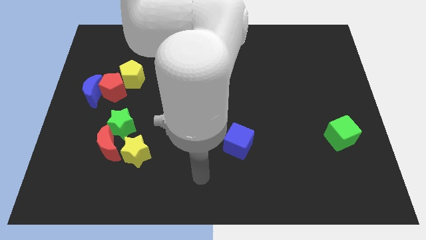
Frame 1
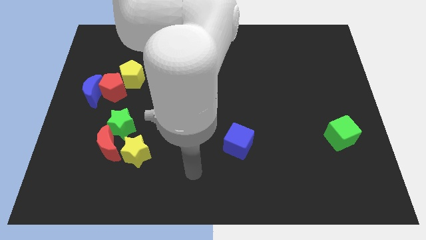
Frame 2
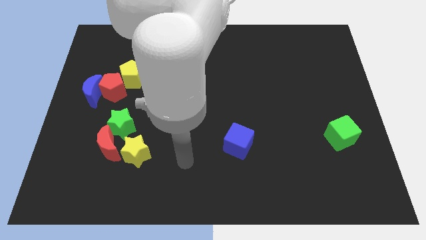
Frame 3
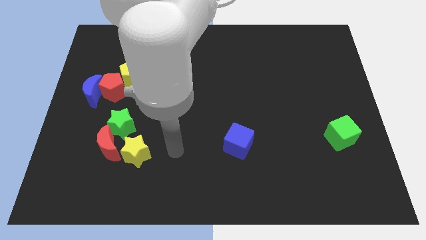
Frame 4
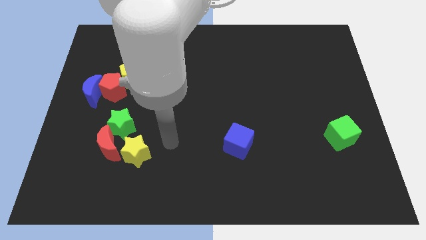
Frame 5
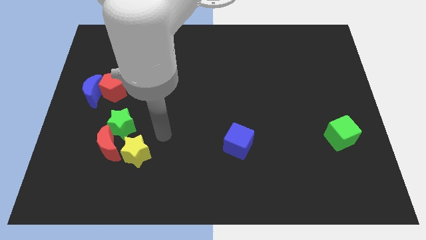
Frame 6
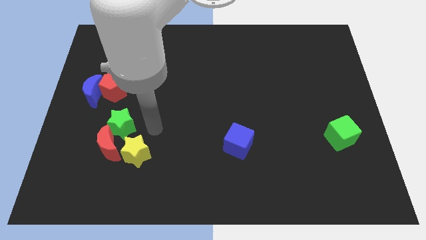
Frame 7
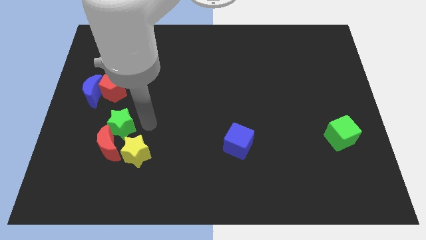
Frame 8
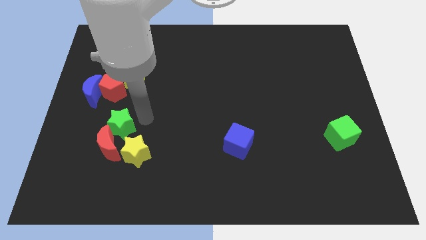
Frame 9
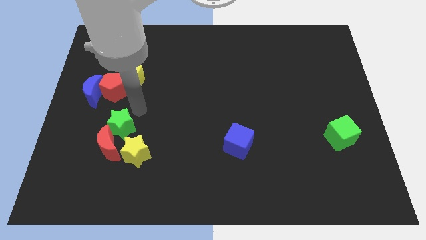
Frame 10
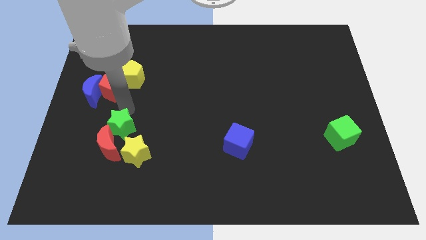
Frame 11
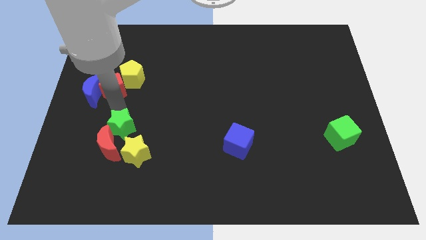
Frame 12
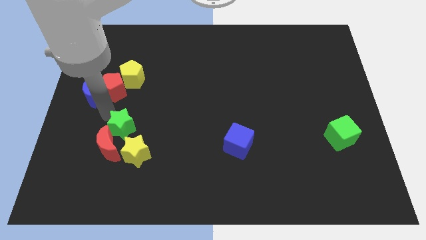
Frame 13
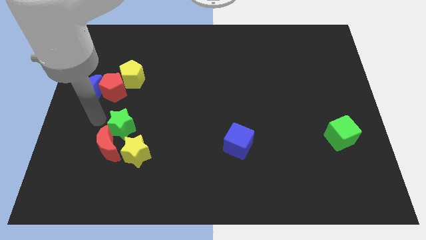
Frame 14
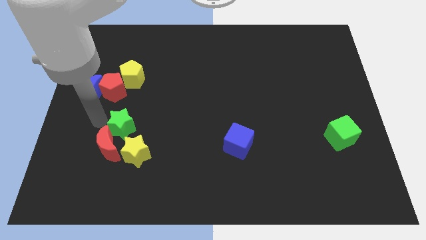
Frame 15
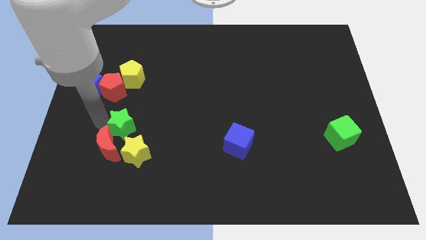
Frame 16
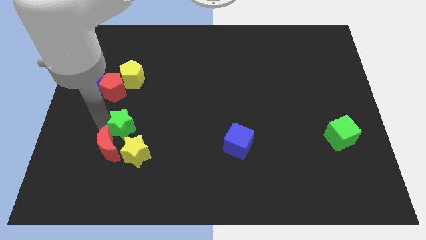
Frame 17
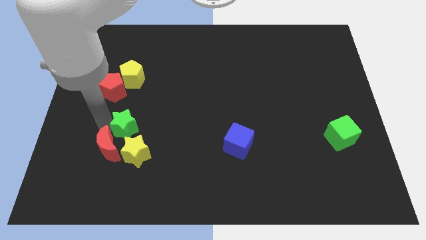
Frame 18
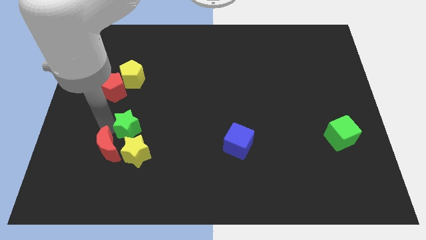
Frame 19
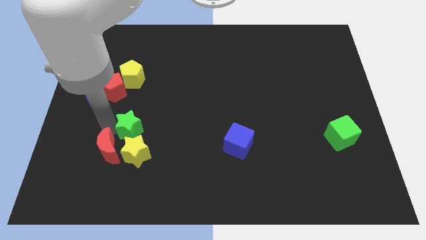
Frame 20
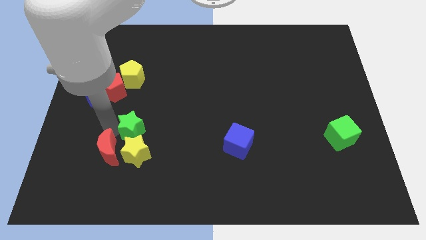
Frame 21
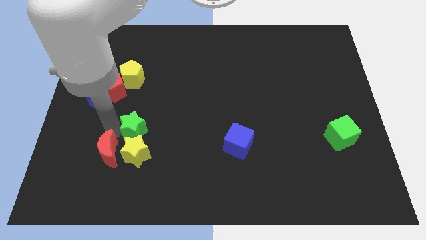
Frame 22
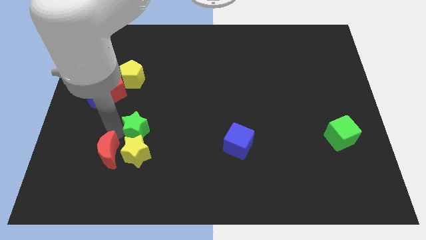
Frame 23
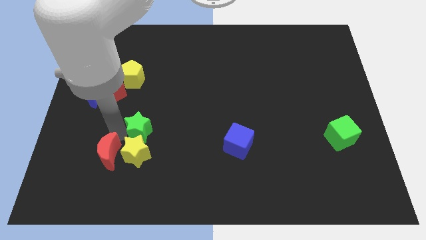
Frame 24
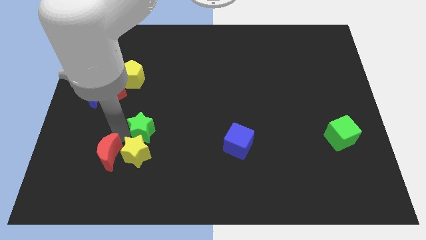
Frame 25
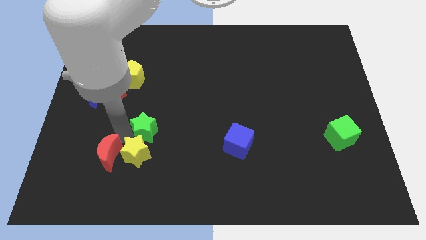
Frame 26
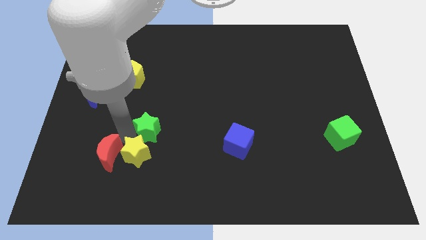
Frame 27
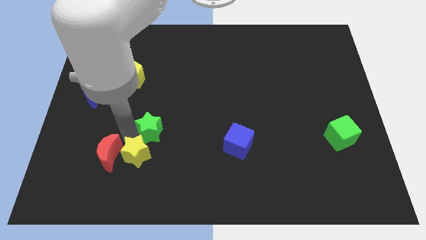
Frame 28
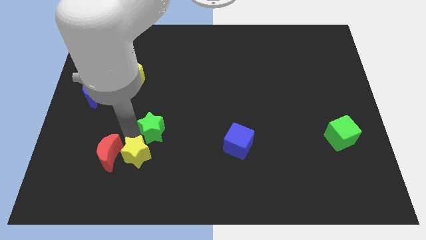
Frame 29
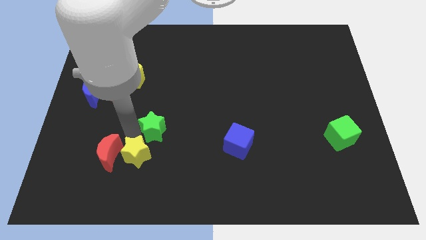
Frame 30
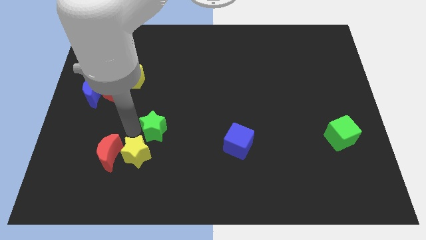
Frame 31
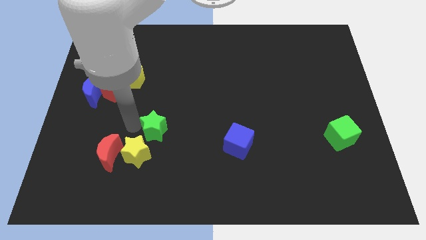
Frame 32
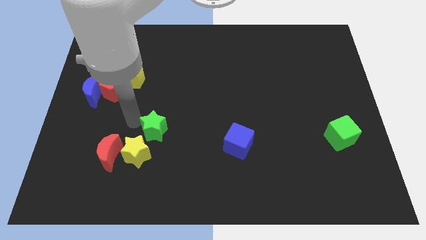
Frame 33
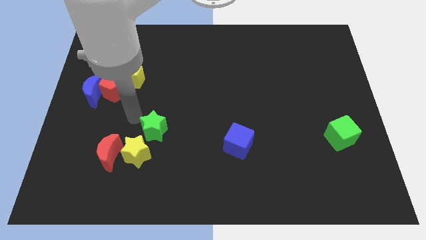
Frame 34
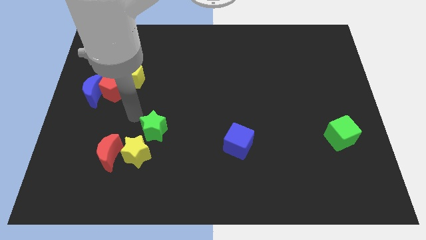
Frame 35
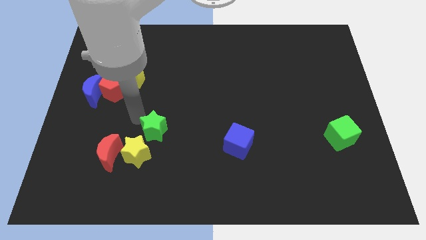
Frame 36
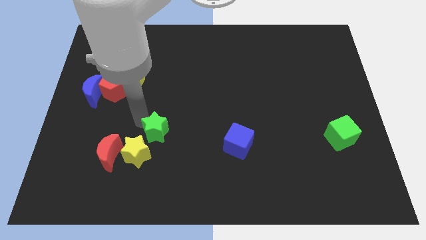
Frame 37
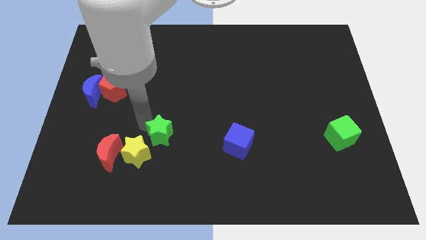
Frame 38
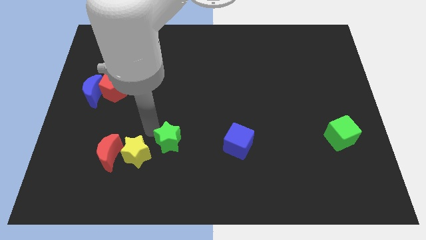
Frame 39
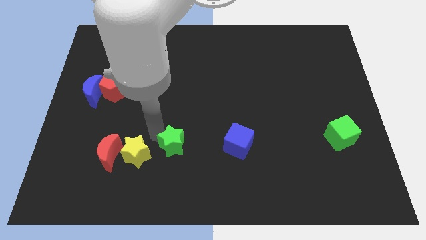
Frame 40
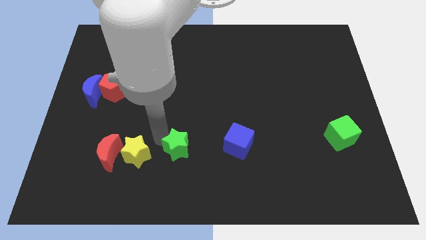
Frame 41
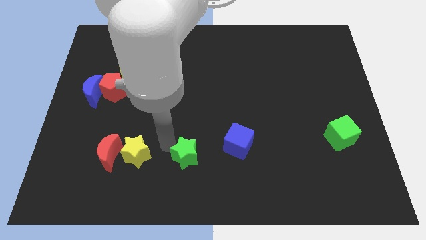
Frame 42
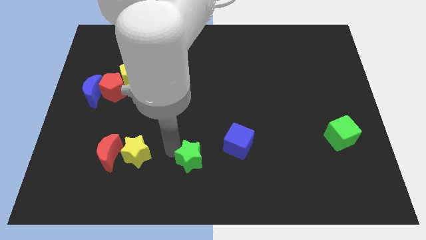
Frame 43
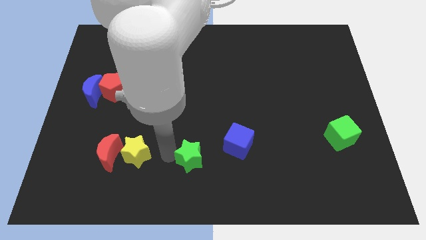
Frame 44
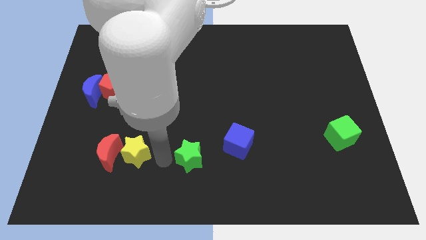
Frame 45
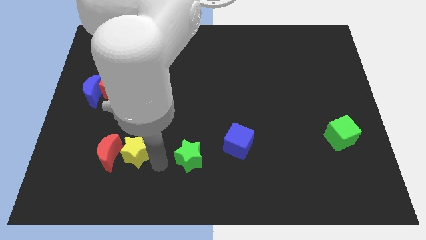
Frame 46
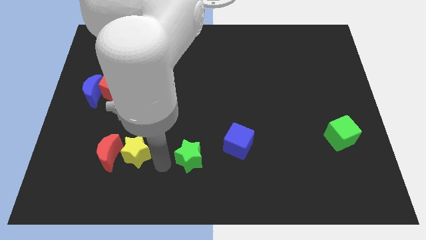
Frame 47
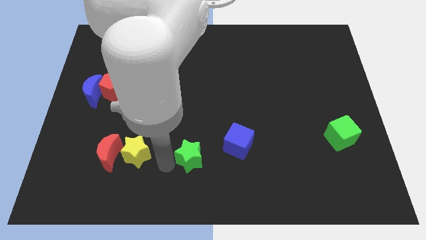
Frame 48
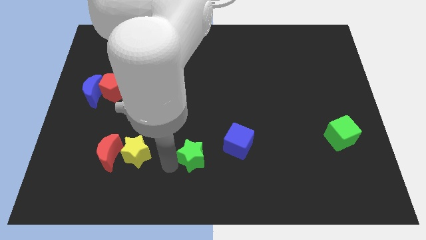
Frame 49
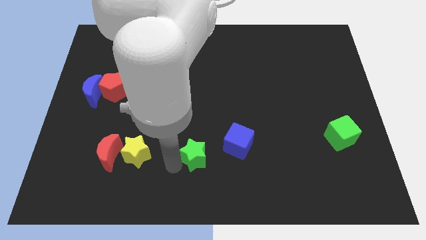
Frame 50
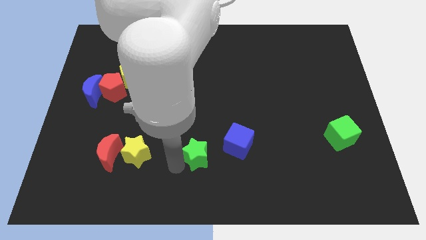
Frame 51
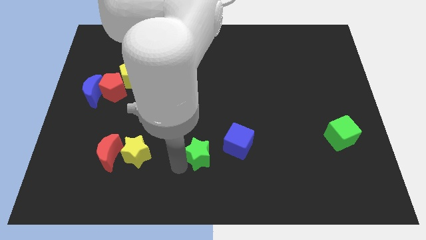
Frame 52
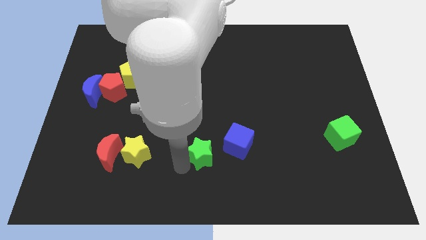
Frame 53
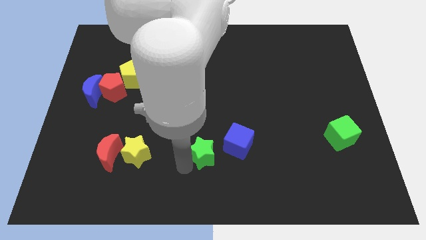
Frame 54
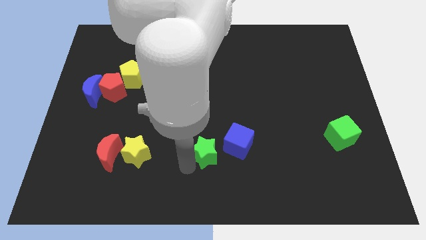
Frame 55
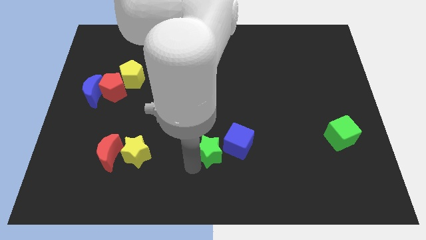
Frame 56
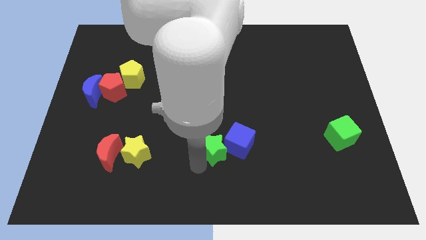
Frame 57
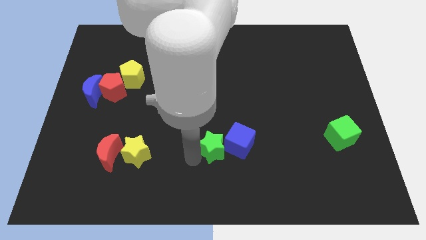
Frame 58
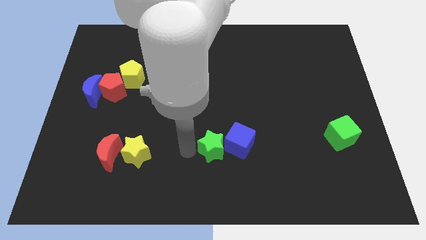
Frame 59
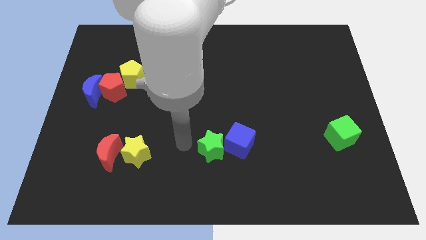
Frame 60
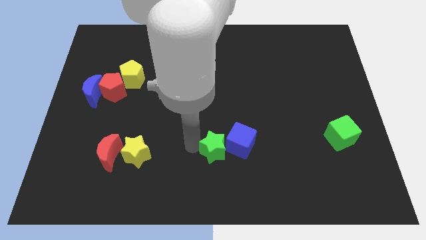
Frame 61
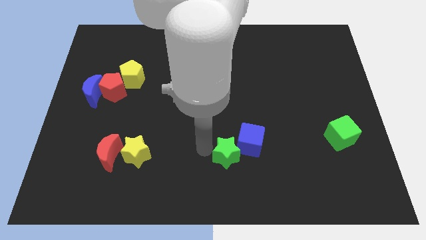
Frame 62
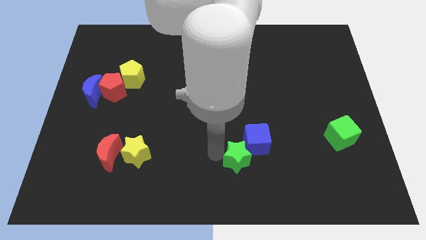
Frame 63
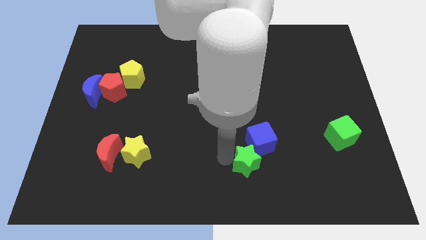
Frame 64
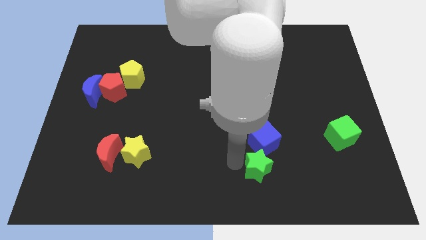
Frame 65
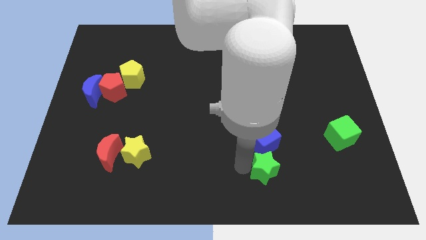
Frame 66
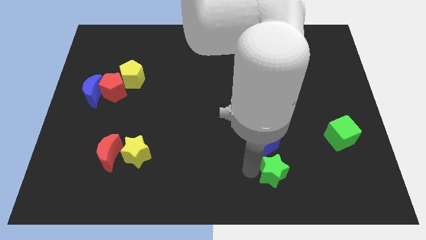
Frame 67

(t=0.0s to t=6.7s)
slide the green star to the bottom right side of the blue cube

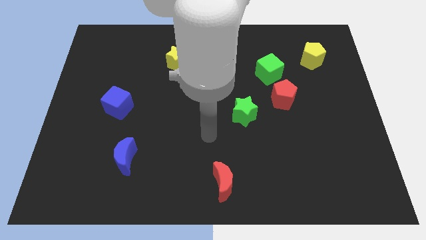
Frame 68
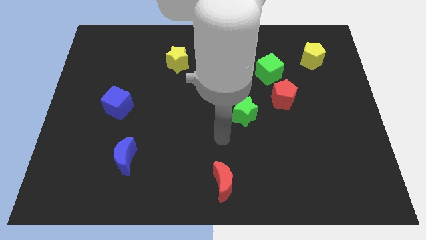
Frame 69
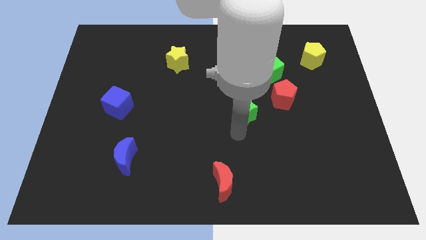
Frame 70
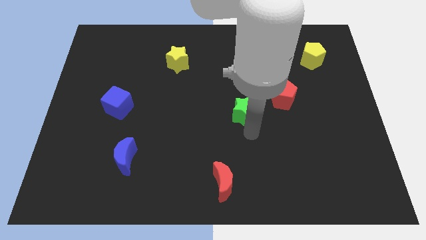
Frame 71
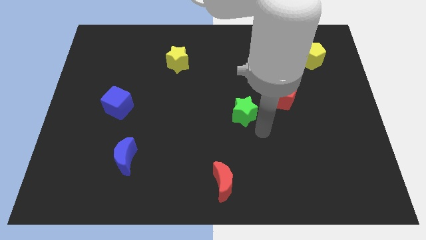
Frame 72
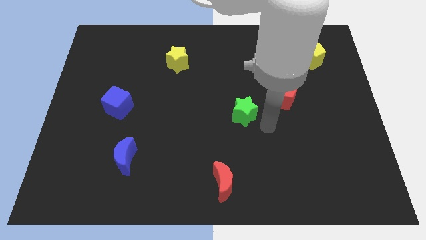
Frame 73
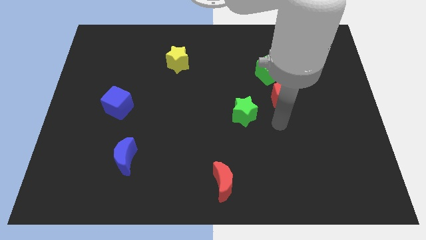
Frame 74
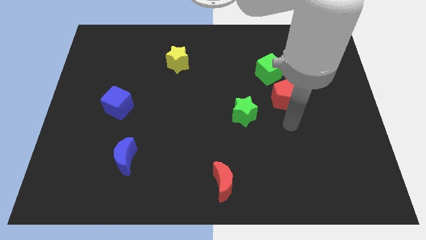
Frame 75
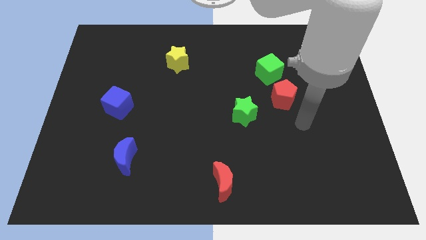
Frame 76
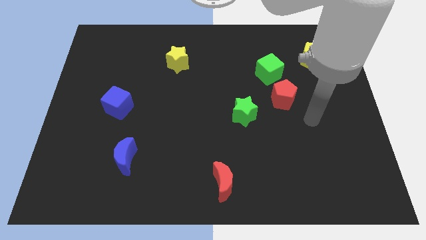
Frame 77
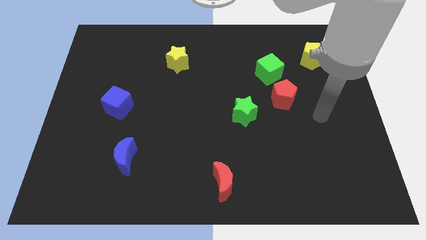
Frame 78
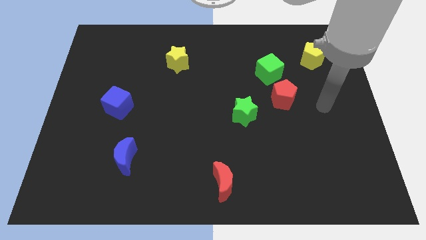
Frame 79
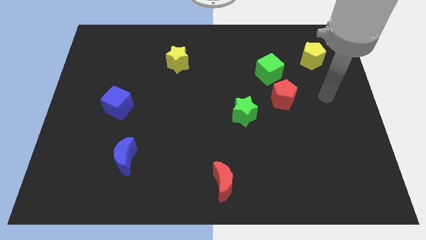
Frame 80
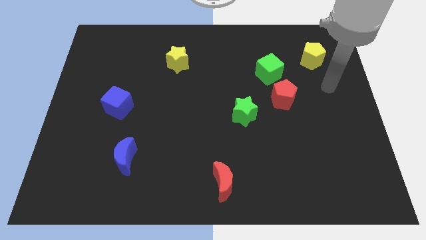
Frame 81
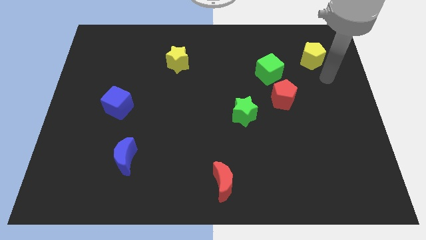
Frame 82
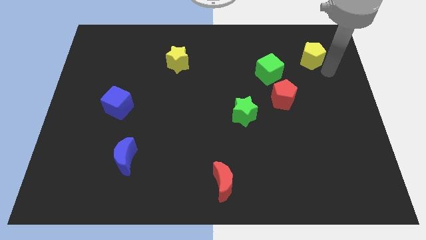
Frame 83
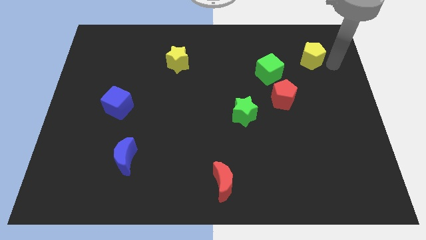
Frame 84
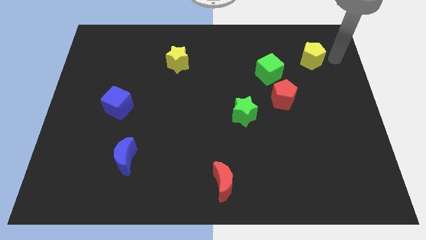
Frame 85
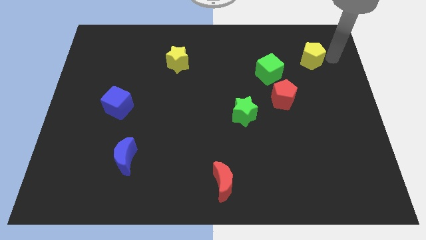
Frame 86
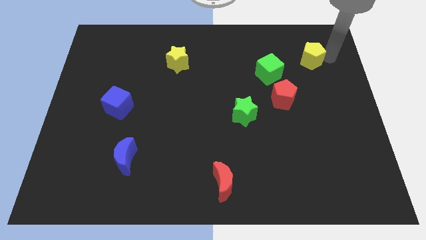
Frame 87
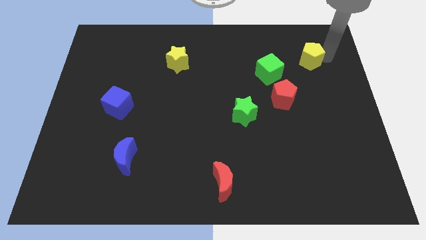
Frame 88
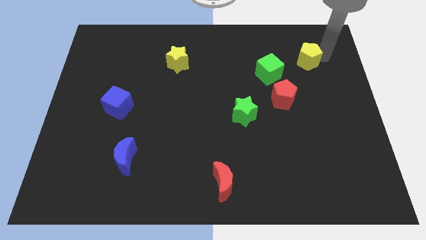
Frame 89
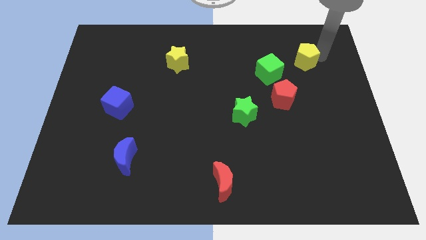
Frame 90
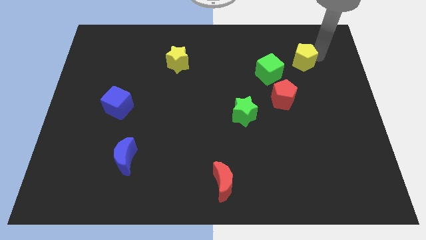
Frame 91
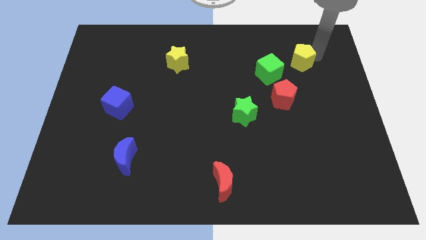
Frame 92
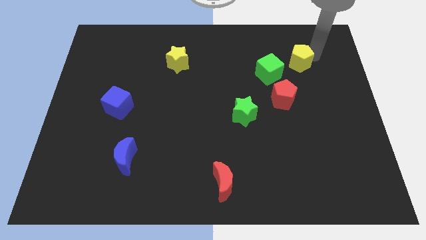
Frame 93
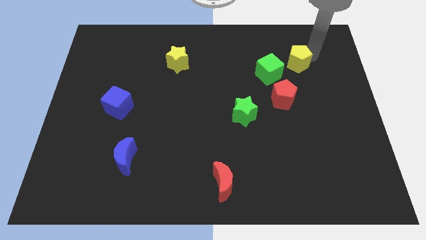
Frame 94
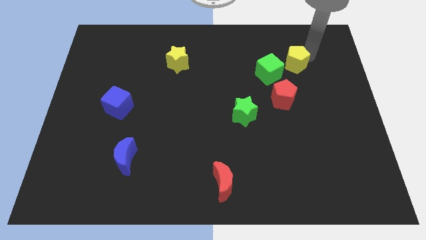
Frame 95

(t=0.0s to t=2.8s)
slide the yellow pentagon above the red pentagon
